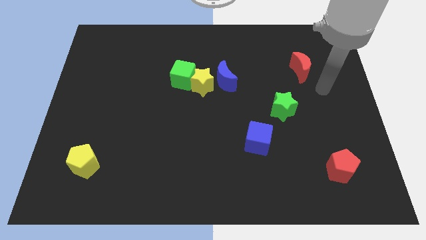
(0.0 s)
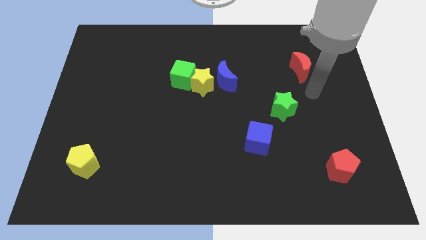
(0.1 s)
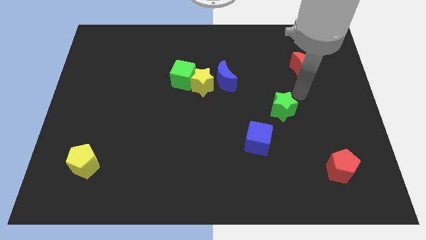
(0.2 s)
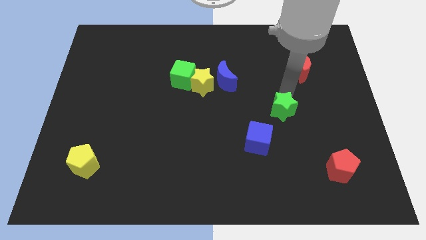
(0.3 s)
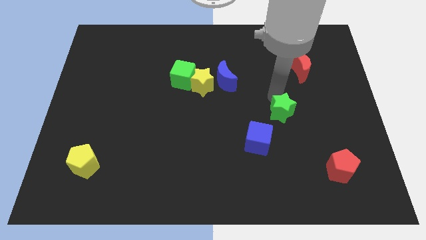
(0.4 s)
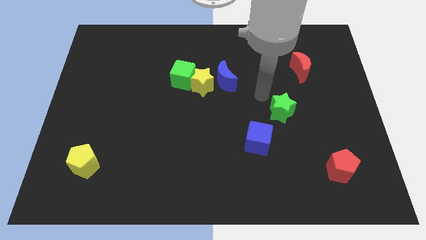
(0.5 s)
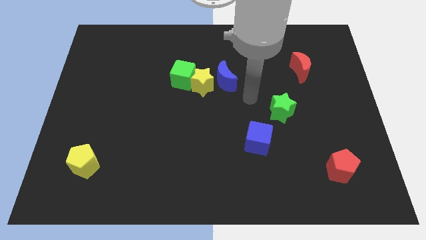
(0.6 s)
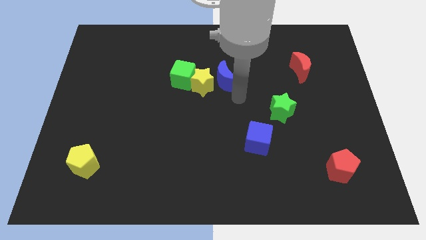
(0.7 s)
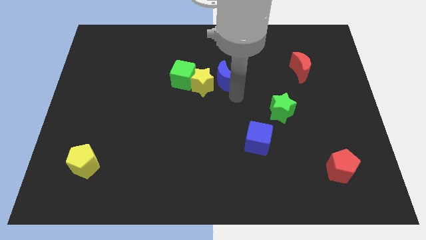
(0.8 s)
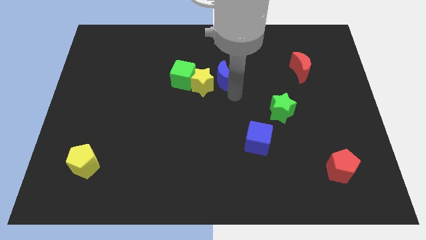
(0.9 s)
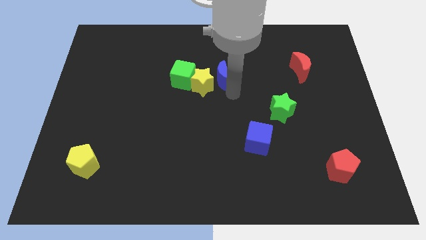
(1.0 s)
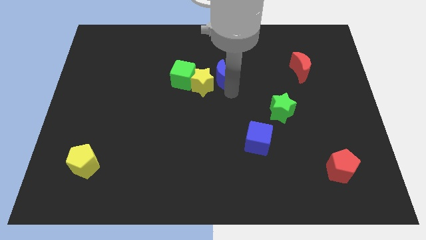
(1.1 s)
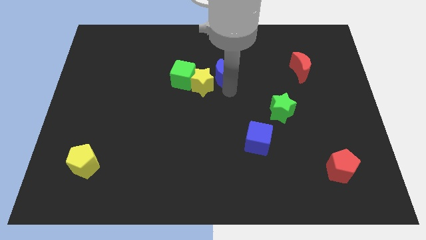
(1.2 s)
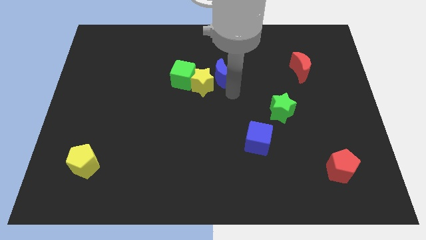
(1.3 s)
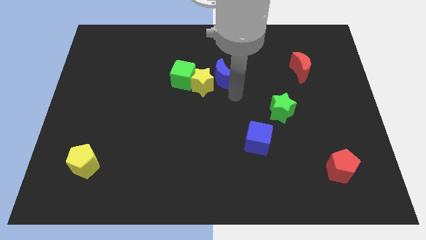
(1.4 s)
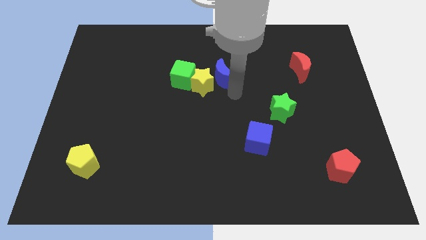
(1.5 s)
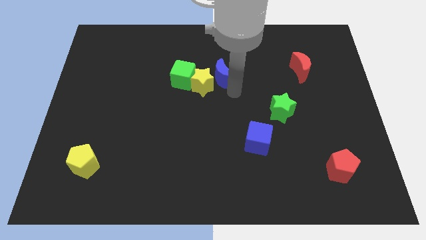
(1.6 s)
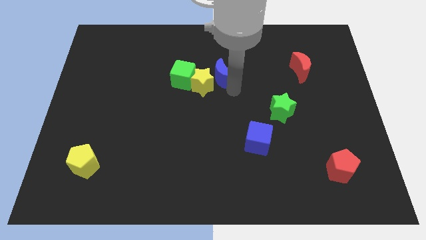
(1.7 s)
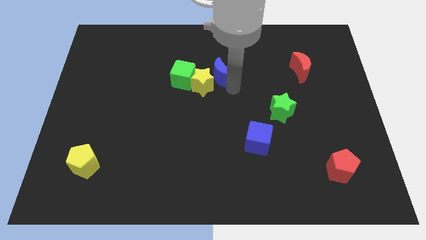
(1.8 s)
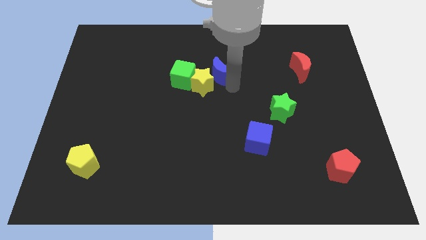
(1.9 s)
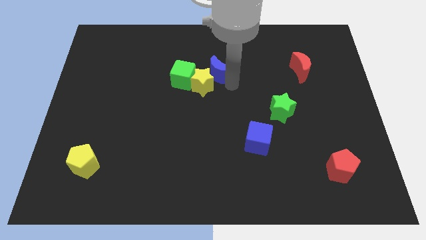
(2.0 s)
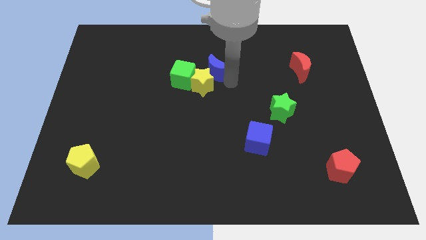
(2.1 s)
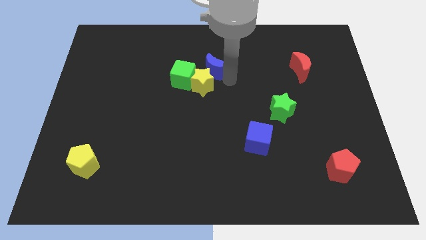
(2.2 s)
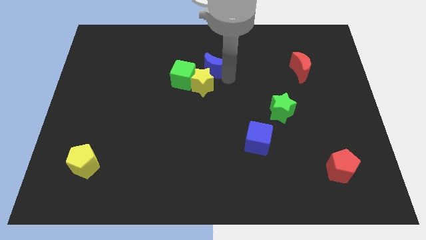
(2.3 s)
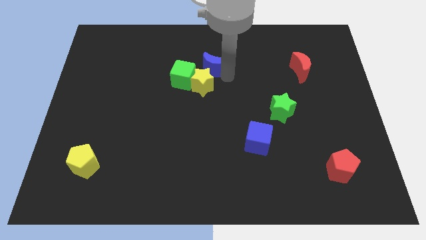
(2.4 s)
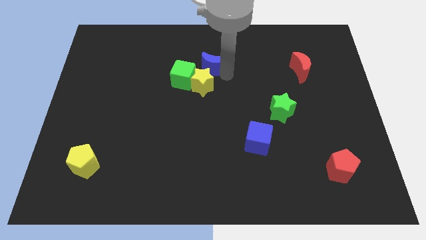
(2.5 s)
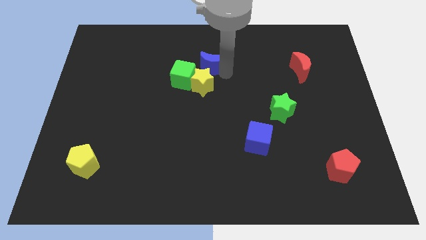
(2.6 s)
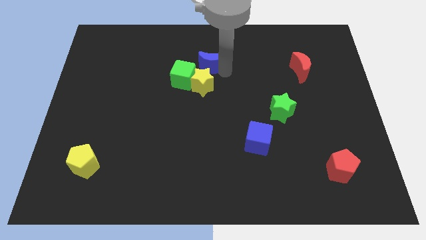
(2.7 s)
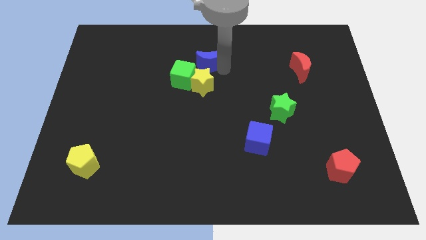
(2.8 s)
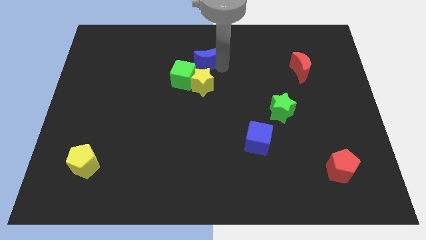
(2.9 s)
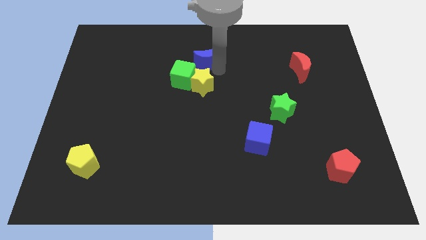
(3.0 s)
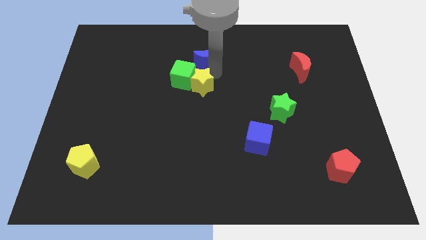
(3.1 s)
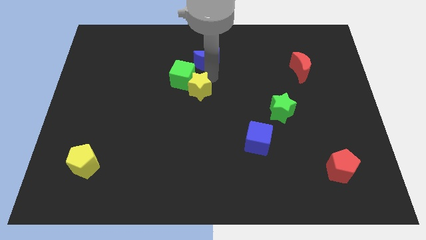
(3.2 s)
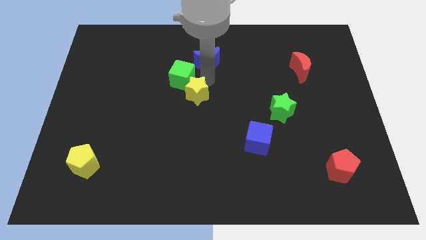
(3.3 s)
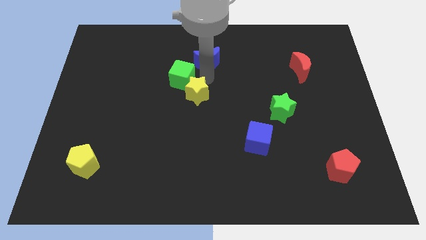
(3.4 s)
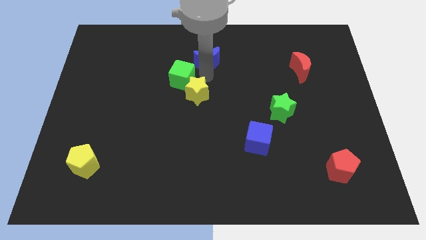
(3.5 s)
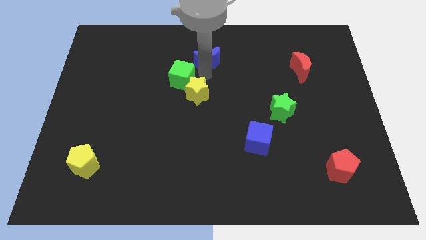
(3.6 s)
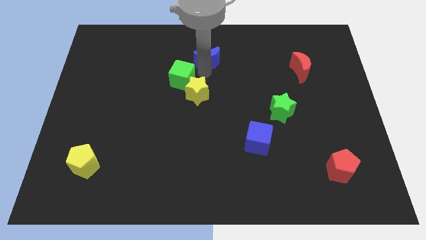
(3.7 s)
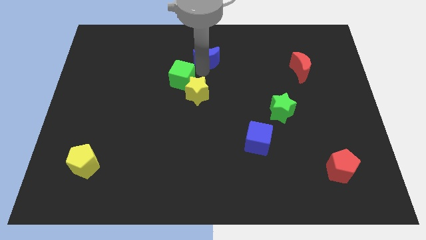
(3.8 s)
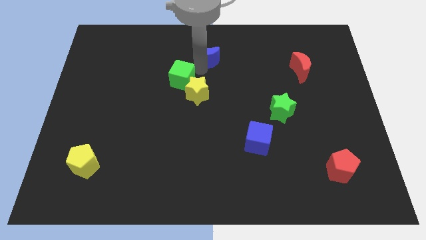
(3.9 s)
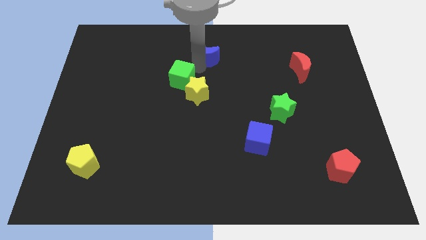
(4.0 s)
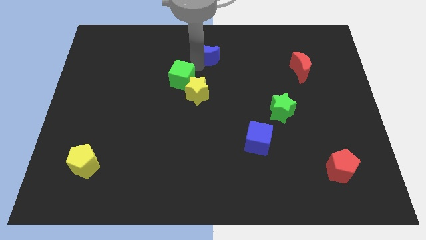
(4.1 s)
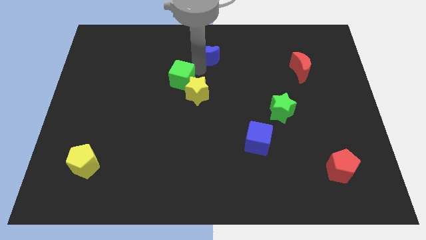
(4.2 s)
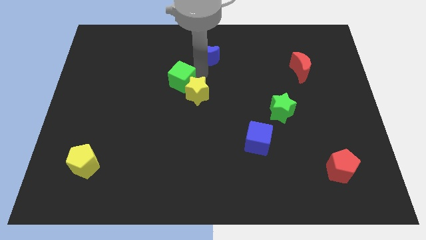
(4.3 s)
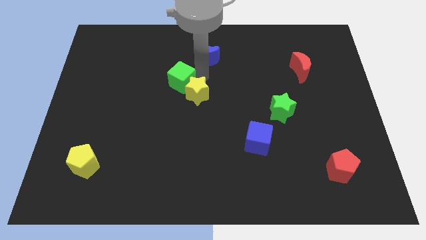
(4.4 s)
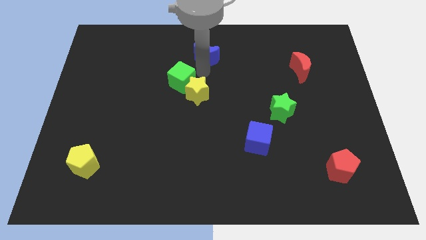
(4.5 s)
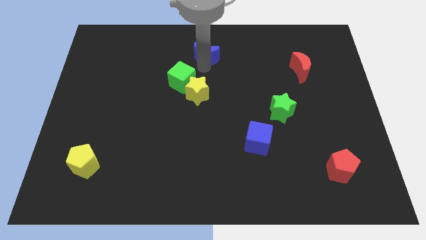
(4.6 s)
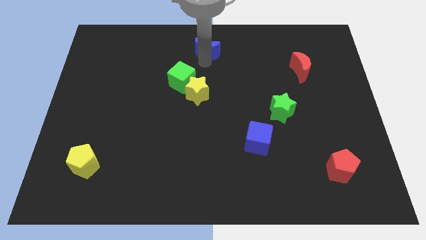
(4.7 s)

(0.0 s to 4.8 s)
move the blue moon to the top side

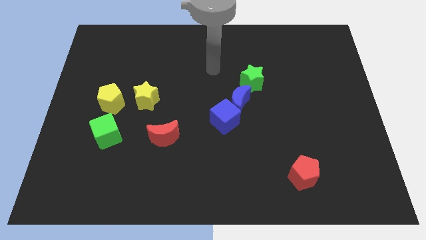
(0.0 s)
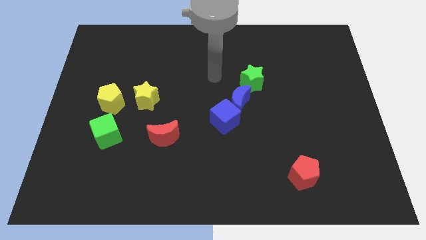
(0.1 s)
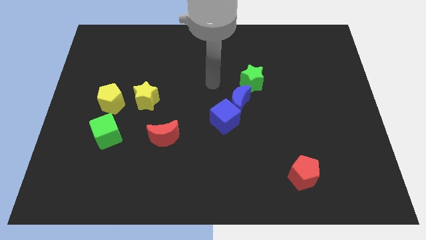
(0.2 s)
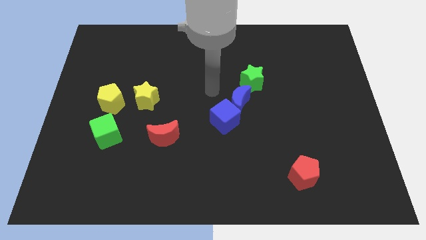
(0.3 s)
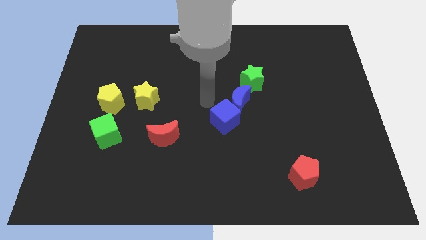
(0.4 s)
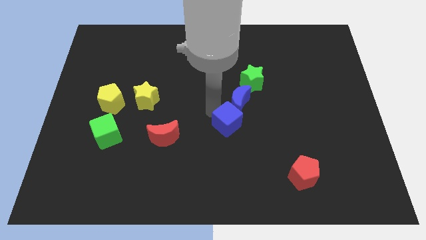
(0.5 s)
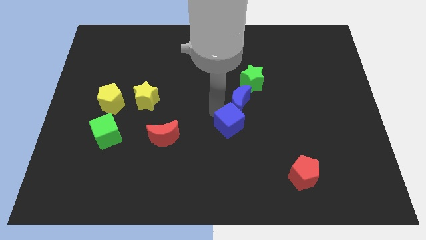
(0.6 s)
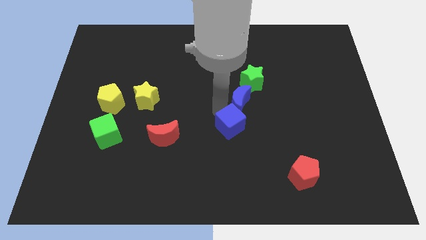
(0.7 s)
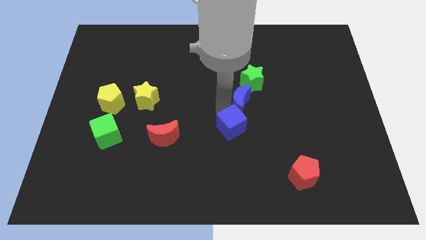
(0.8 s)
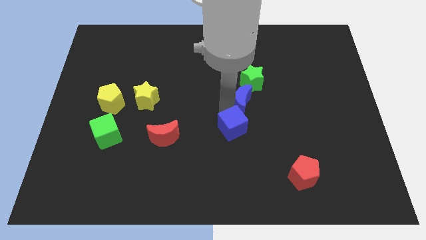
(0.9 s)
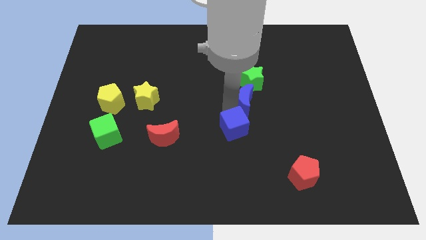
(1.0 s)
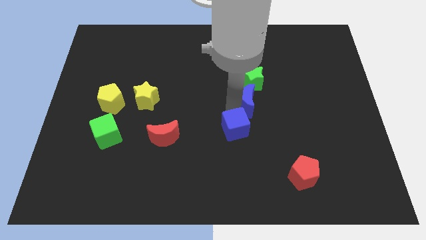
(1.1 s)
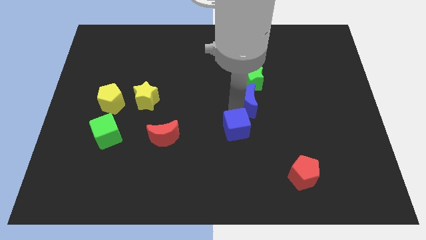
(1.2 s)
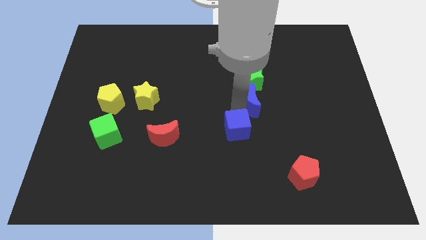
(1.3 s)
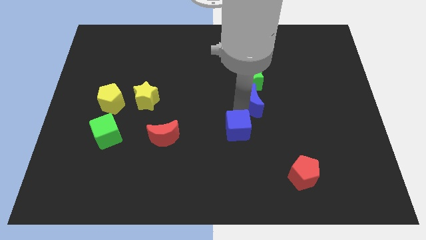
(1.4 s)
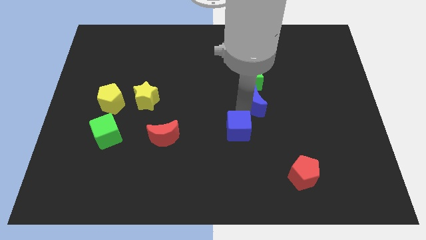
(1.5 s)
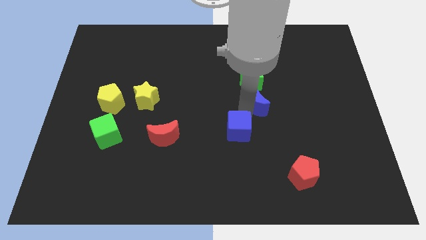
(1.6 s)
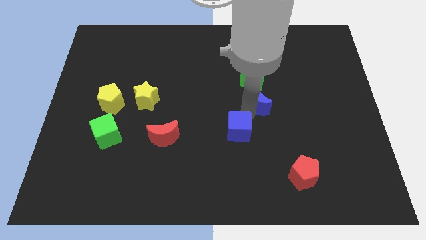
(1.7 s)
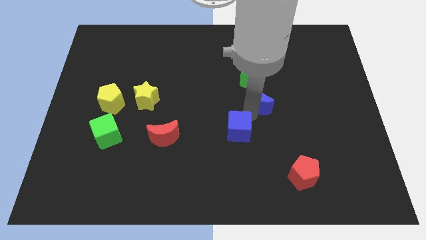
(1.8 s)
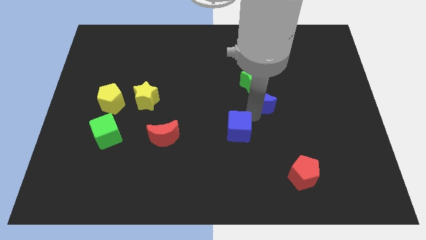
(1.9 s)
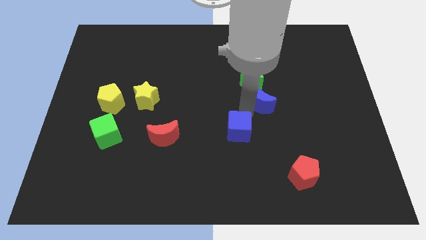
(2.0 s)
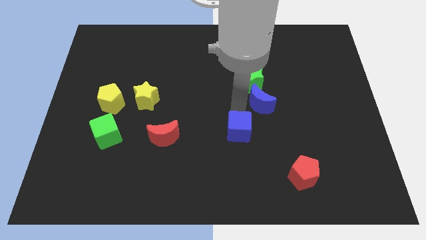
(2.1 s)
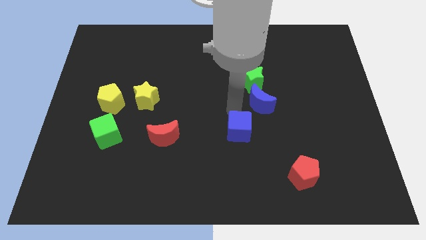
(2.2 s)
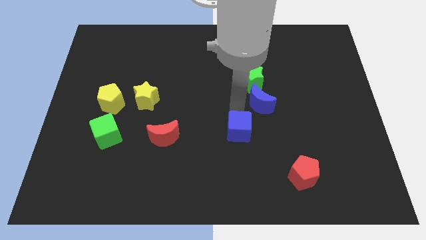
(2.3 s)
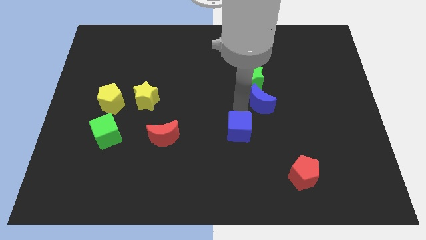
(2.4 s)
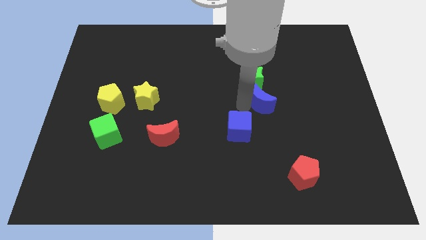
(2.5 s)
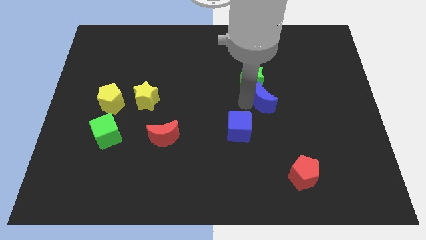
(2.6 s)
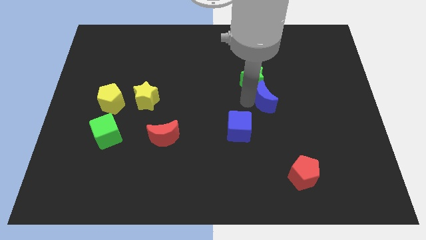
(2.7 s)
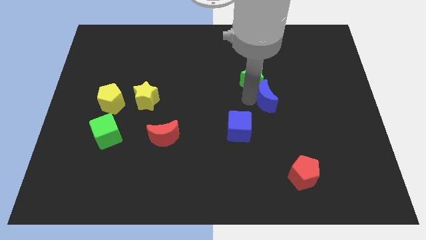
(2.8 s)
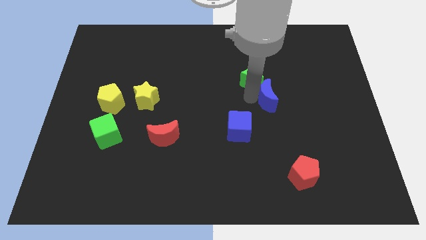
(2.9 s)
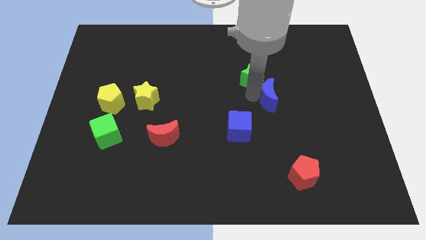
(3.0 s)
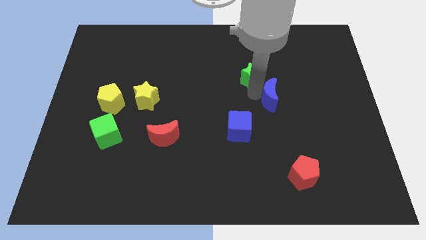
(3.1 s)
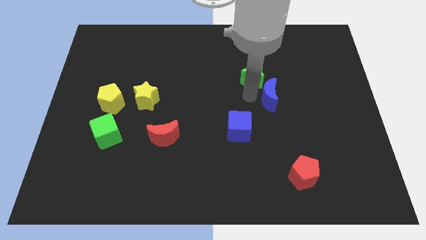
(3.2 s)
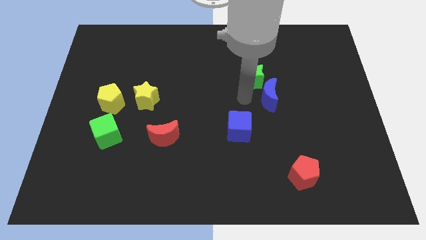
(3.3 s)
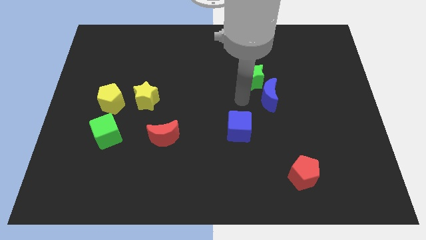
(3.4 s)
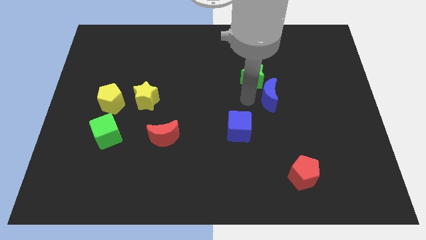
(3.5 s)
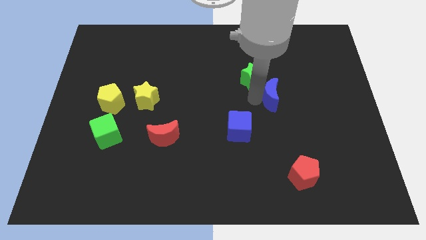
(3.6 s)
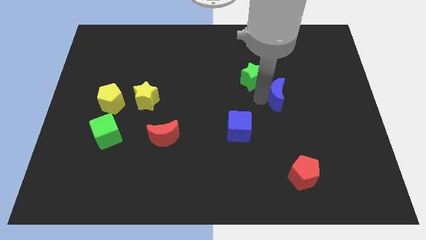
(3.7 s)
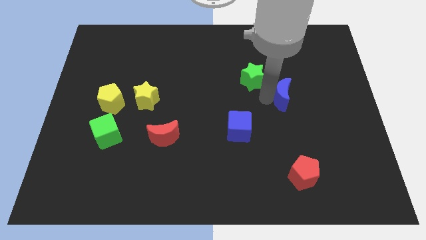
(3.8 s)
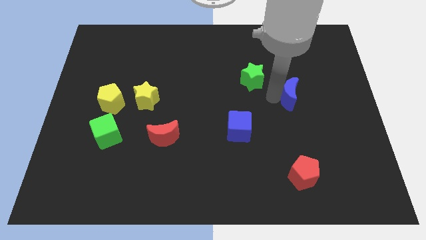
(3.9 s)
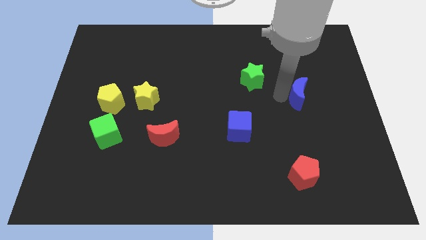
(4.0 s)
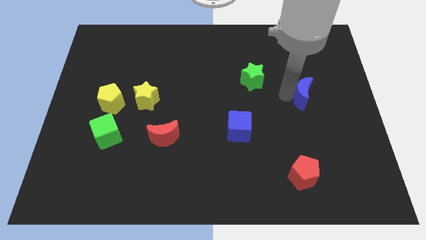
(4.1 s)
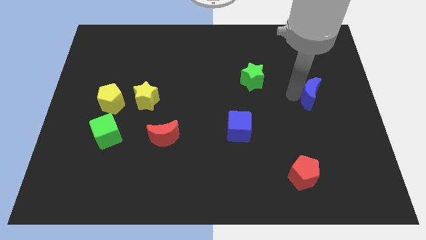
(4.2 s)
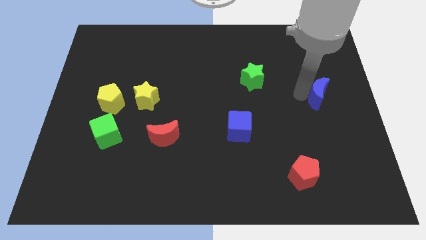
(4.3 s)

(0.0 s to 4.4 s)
push the blue moon to the right side of the board
